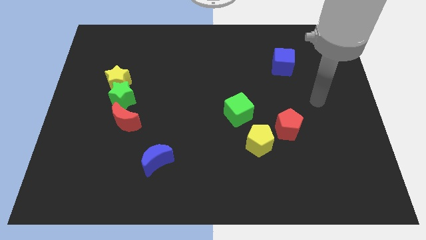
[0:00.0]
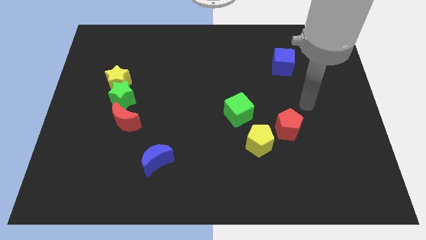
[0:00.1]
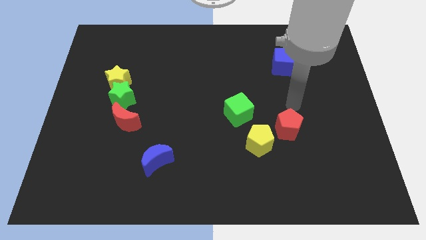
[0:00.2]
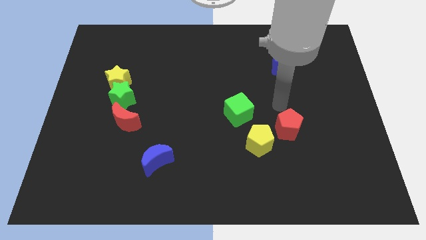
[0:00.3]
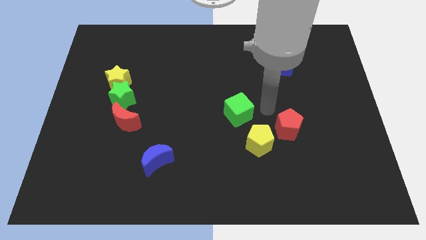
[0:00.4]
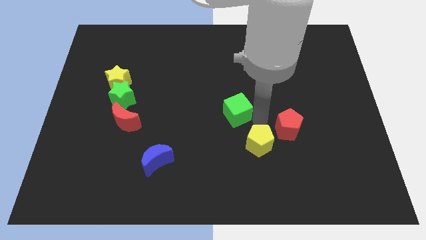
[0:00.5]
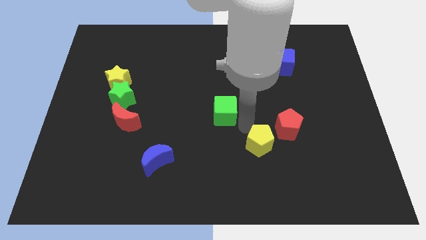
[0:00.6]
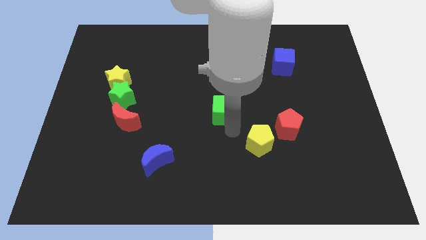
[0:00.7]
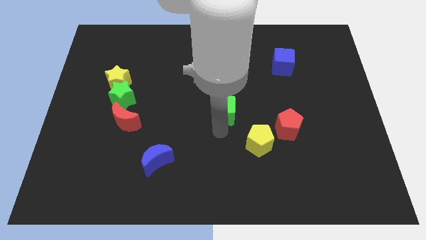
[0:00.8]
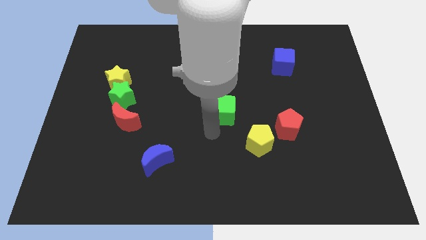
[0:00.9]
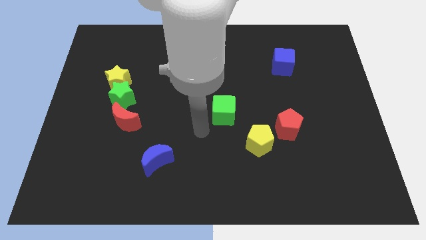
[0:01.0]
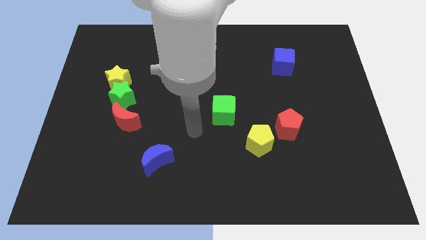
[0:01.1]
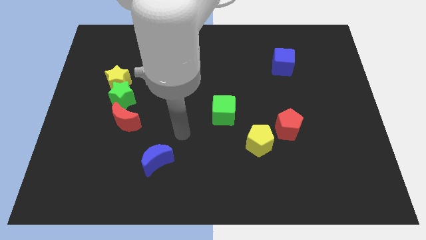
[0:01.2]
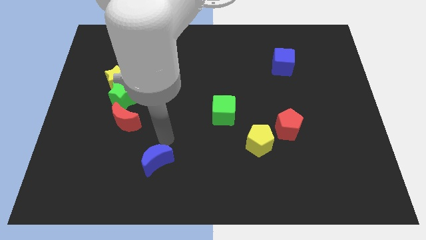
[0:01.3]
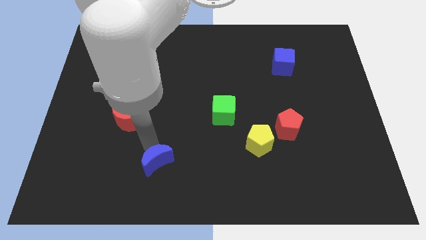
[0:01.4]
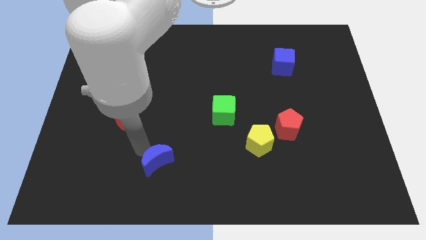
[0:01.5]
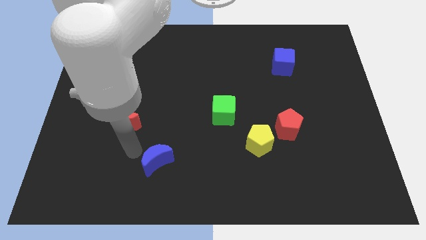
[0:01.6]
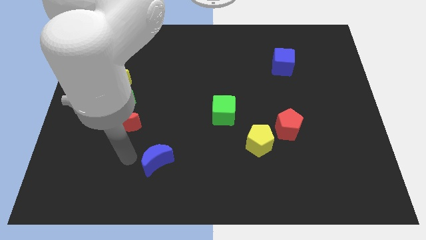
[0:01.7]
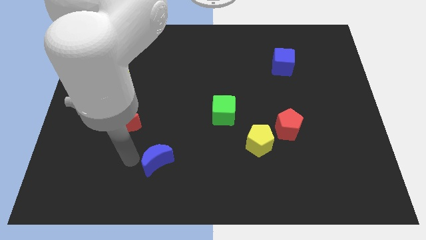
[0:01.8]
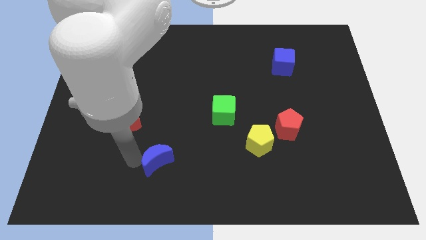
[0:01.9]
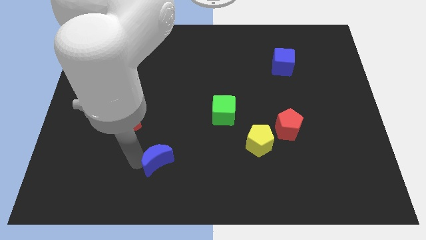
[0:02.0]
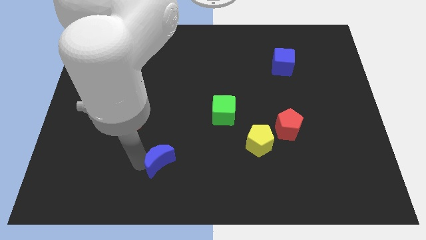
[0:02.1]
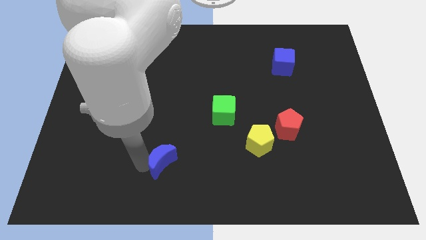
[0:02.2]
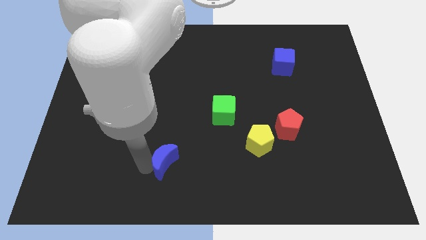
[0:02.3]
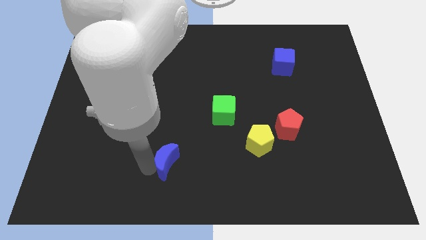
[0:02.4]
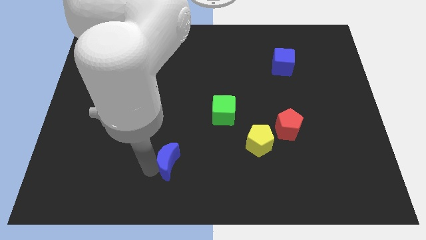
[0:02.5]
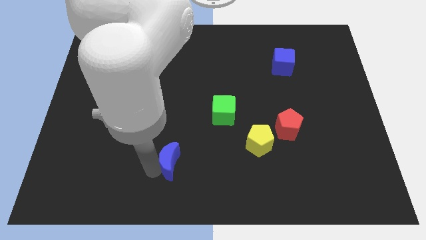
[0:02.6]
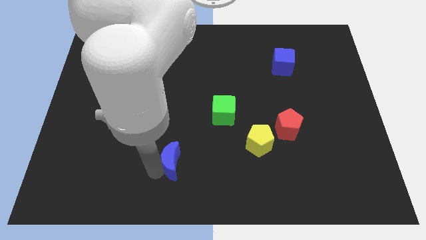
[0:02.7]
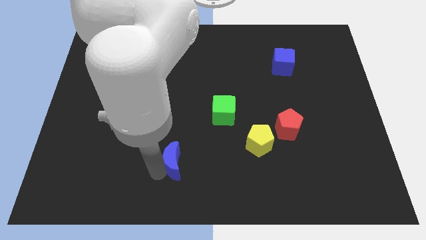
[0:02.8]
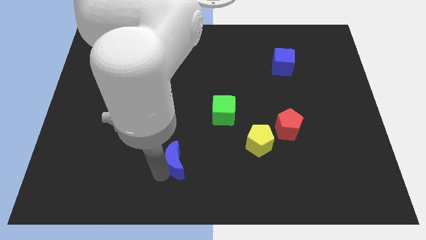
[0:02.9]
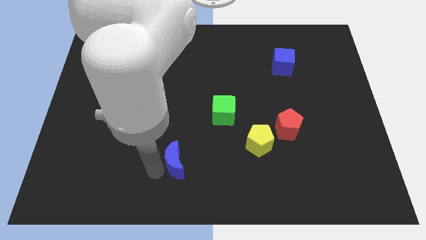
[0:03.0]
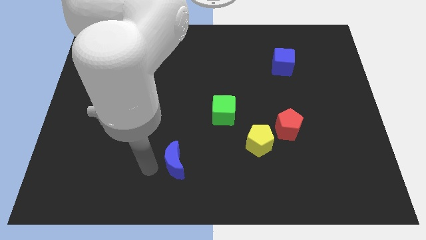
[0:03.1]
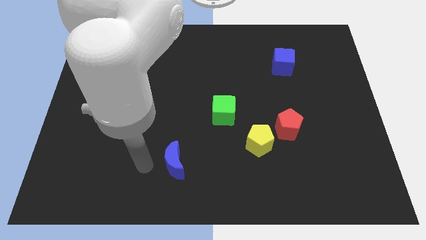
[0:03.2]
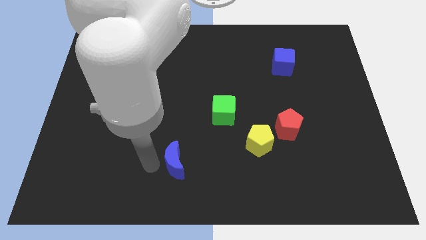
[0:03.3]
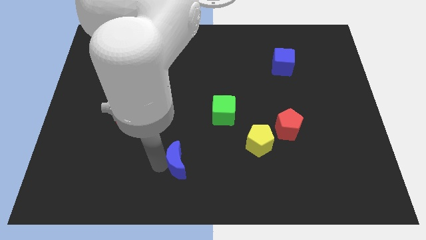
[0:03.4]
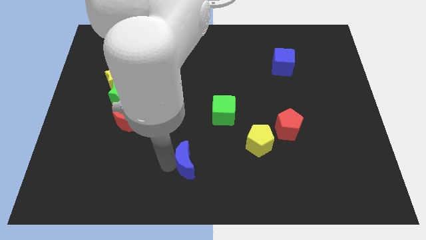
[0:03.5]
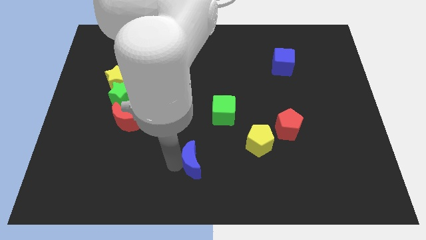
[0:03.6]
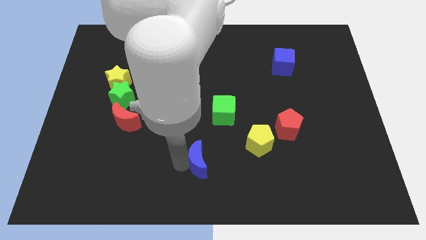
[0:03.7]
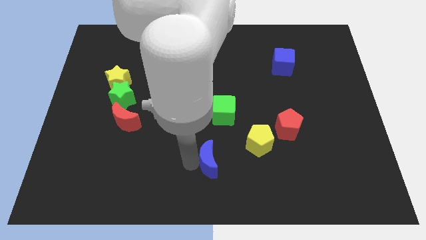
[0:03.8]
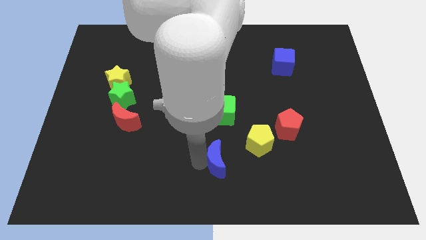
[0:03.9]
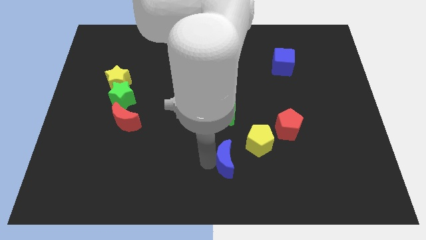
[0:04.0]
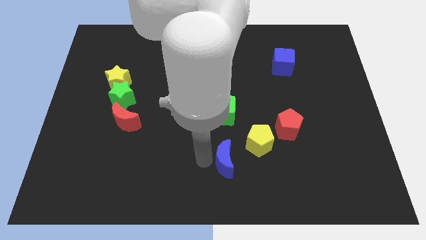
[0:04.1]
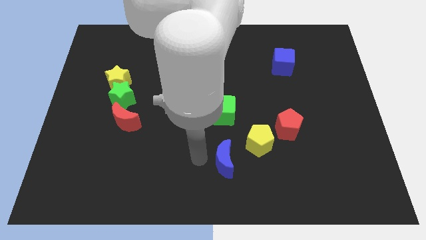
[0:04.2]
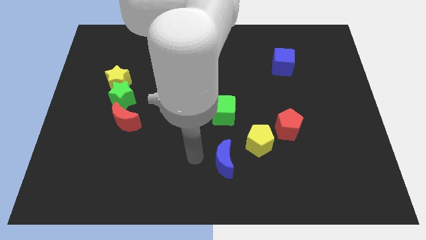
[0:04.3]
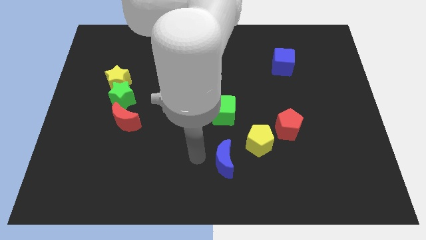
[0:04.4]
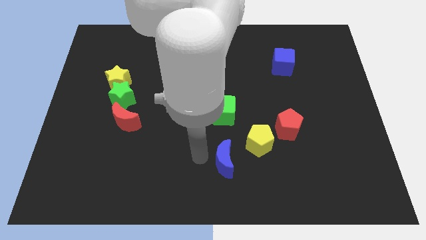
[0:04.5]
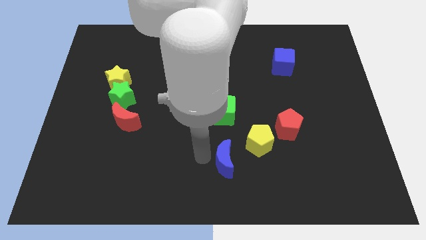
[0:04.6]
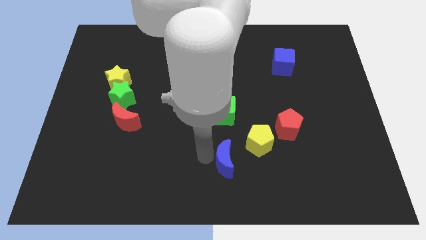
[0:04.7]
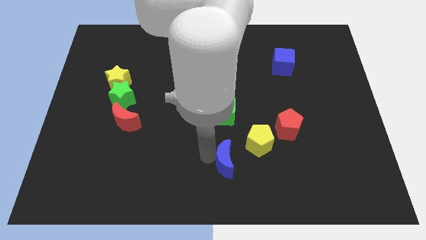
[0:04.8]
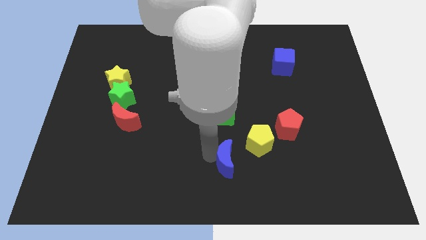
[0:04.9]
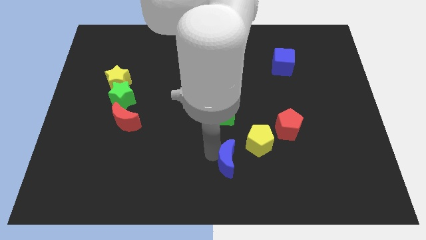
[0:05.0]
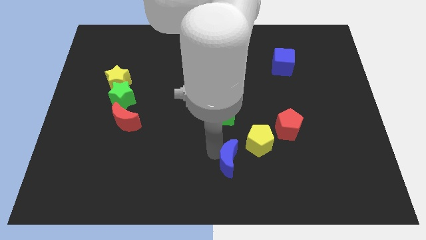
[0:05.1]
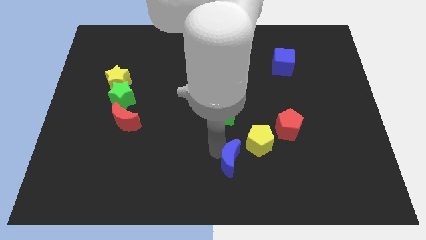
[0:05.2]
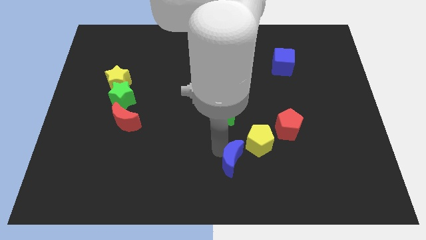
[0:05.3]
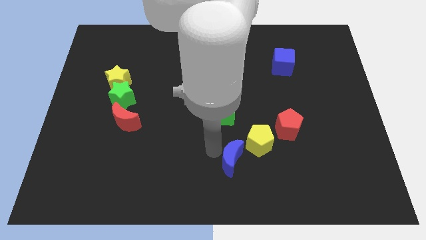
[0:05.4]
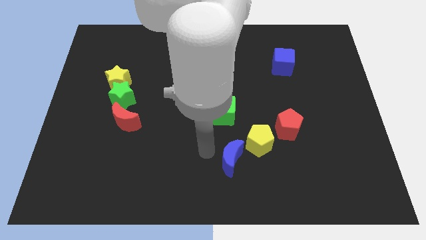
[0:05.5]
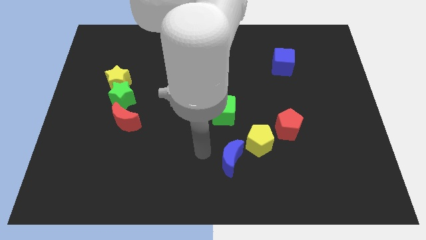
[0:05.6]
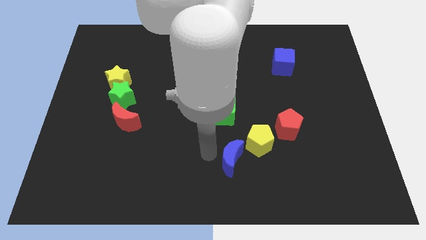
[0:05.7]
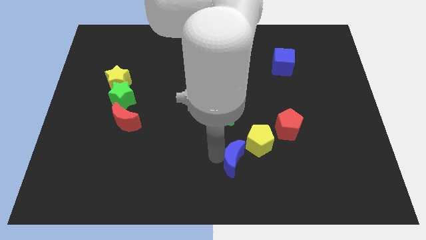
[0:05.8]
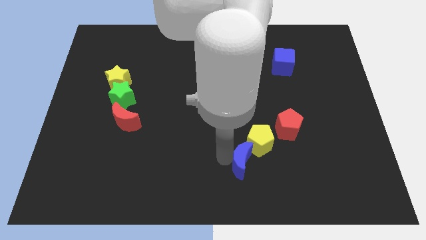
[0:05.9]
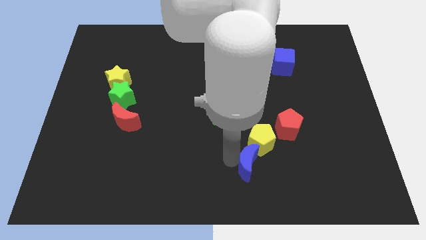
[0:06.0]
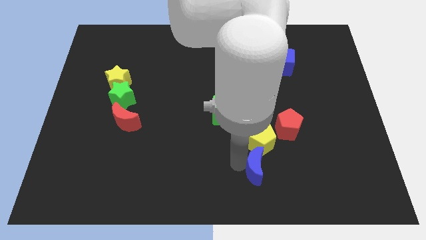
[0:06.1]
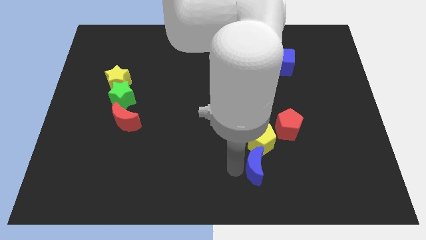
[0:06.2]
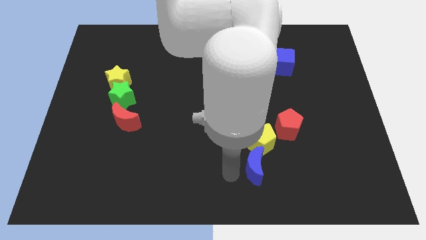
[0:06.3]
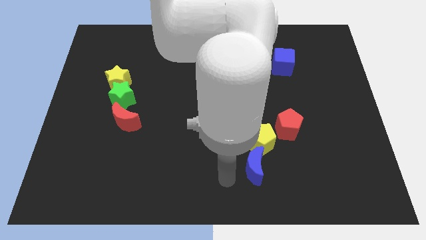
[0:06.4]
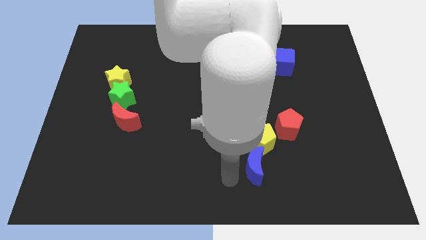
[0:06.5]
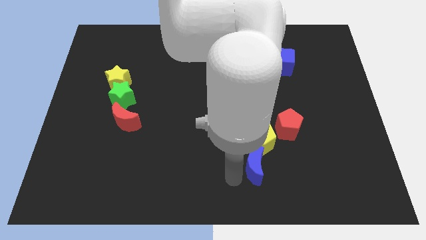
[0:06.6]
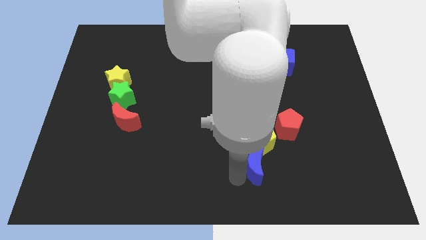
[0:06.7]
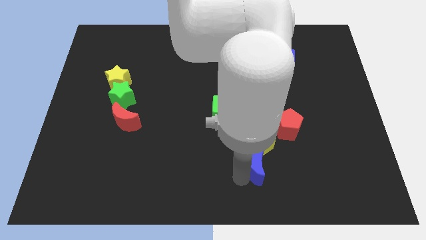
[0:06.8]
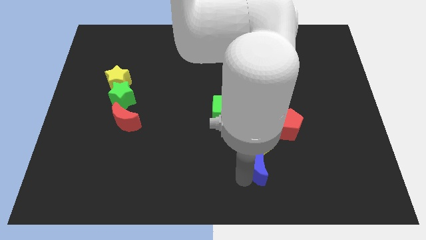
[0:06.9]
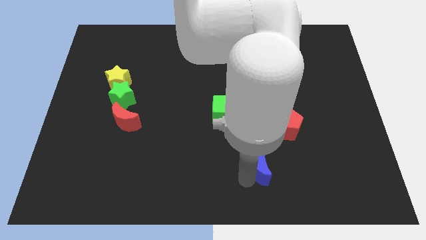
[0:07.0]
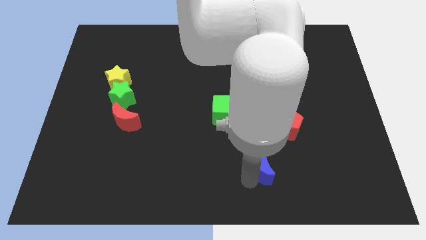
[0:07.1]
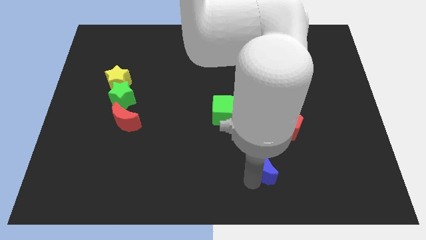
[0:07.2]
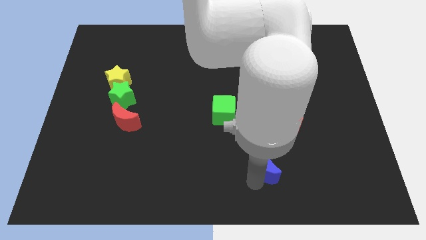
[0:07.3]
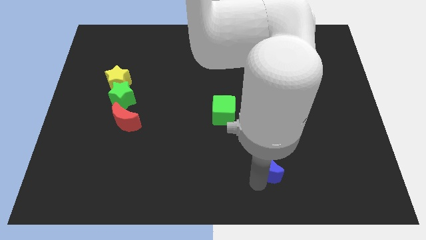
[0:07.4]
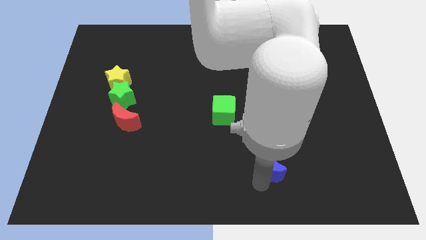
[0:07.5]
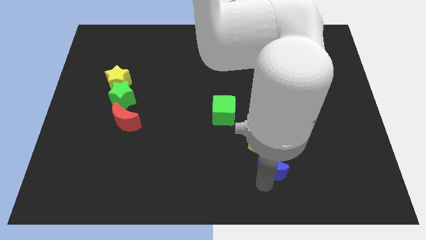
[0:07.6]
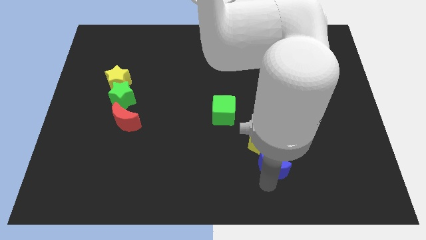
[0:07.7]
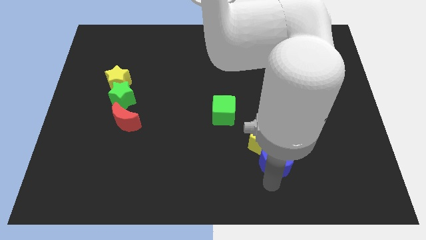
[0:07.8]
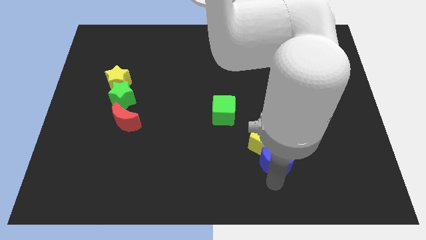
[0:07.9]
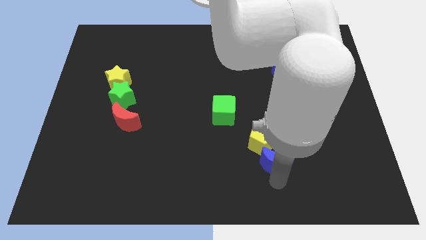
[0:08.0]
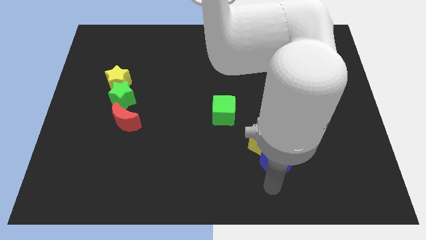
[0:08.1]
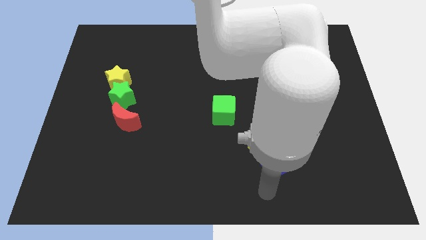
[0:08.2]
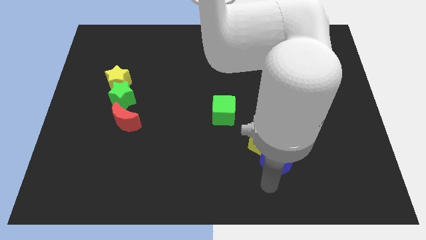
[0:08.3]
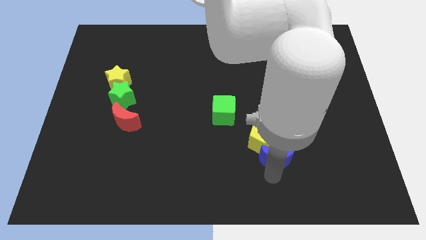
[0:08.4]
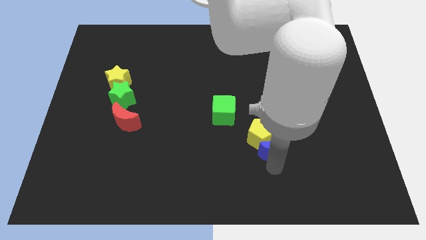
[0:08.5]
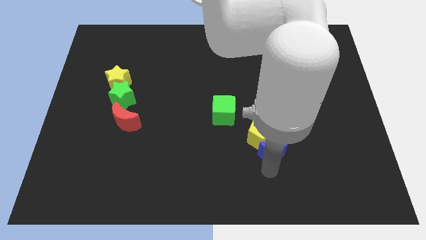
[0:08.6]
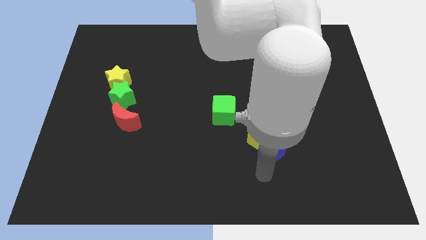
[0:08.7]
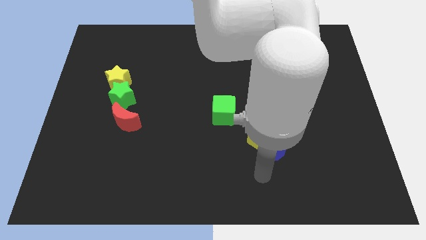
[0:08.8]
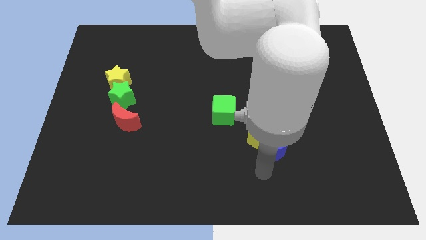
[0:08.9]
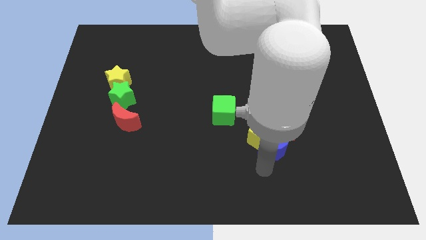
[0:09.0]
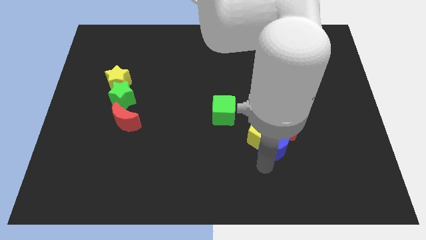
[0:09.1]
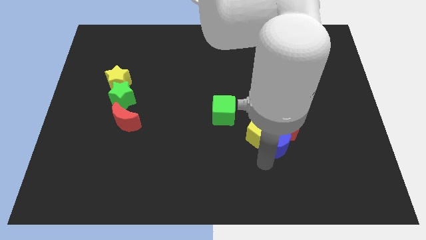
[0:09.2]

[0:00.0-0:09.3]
push the blue moon to the red pentagon
